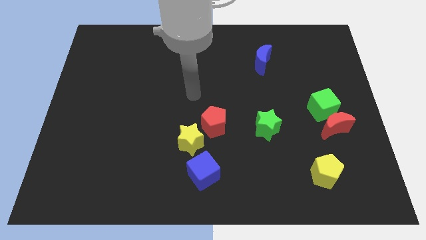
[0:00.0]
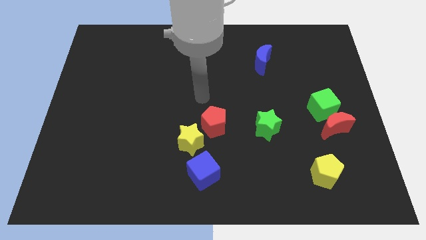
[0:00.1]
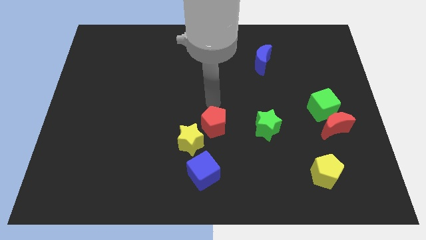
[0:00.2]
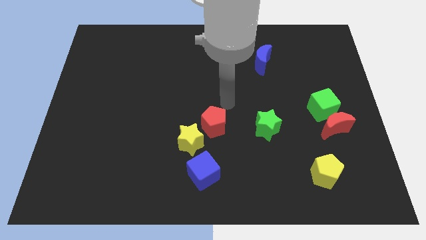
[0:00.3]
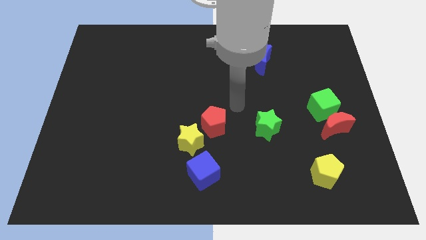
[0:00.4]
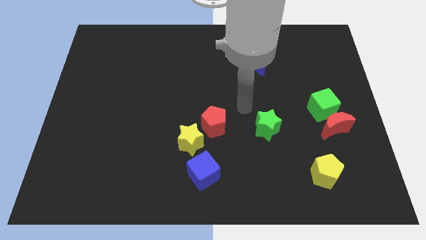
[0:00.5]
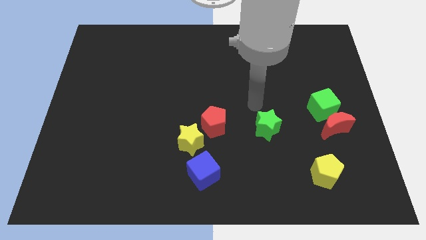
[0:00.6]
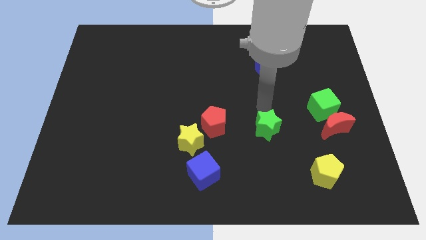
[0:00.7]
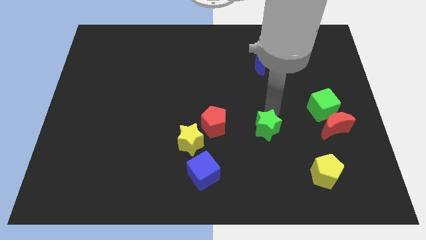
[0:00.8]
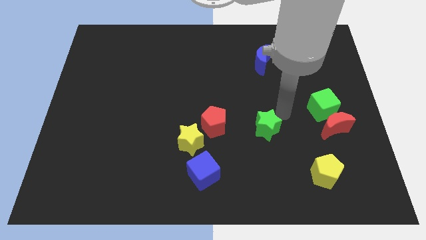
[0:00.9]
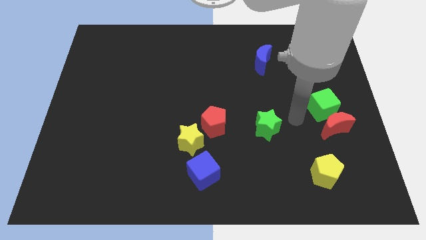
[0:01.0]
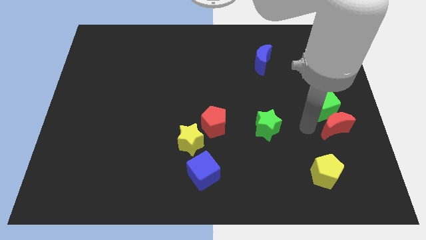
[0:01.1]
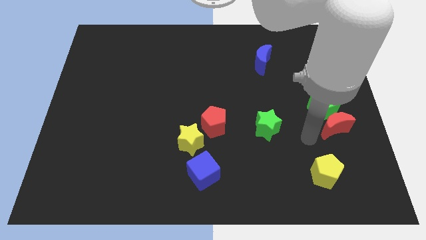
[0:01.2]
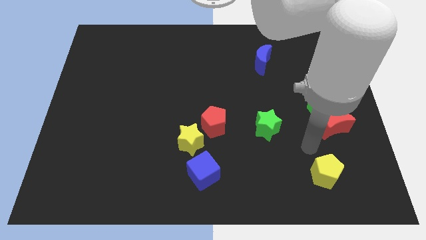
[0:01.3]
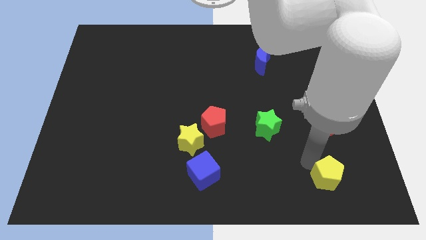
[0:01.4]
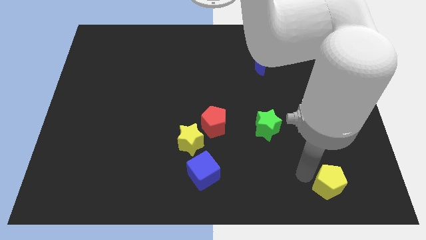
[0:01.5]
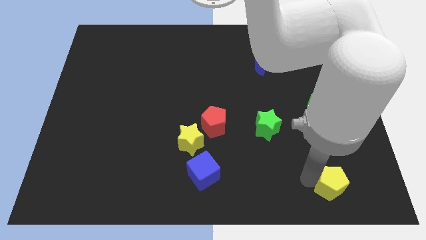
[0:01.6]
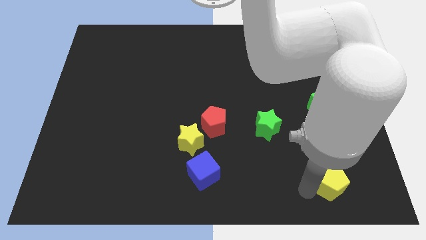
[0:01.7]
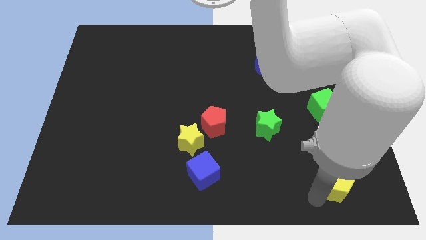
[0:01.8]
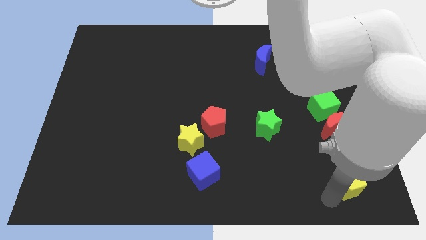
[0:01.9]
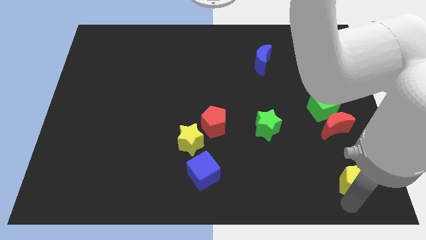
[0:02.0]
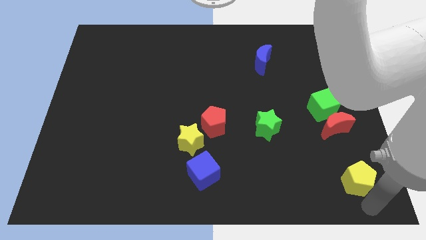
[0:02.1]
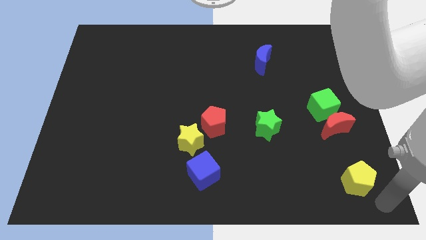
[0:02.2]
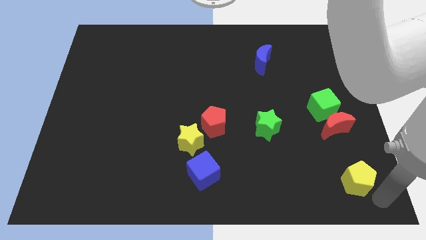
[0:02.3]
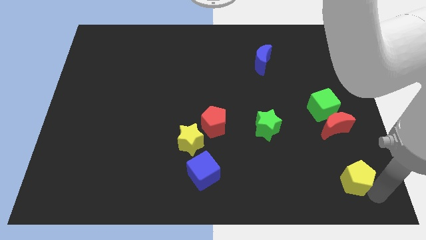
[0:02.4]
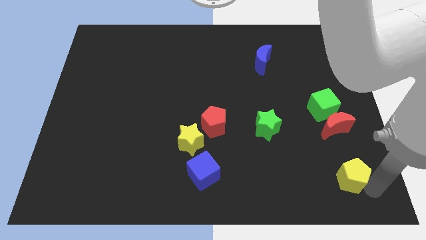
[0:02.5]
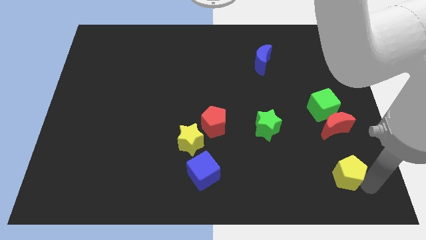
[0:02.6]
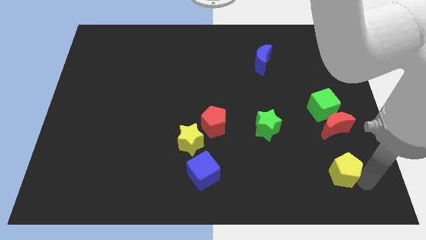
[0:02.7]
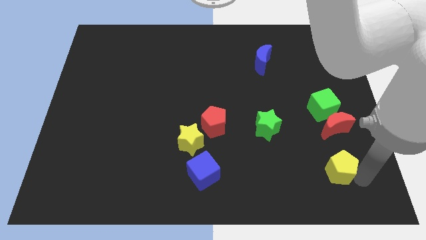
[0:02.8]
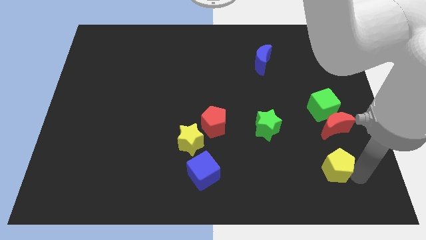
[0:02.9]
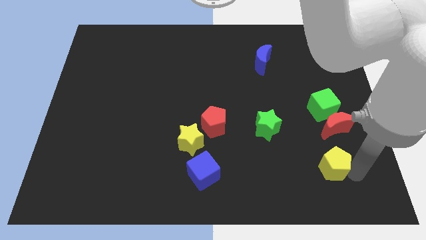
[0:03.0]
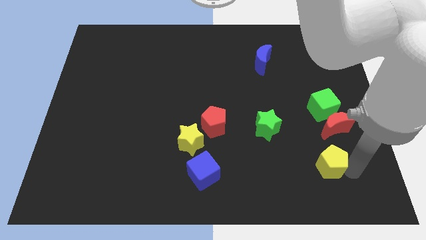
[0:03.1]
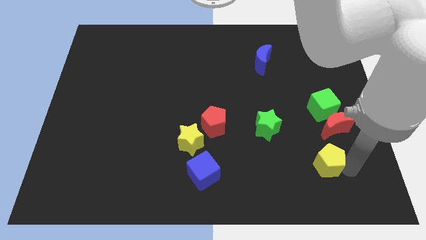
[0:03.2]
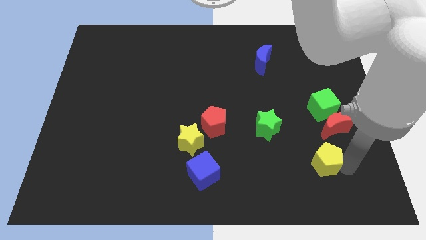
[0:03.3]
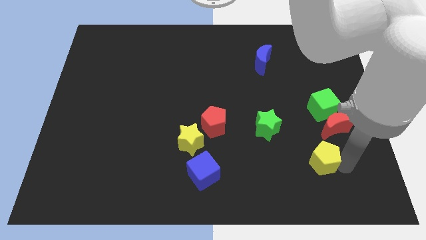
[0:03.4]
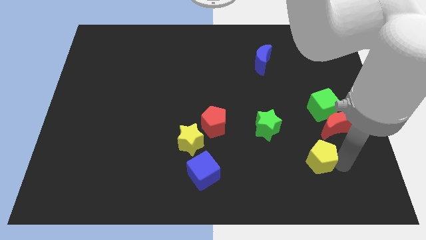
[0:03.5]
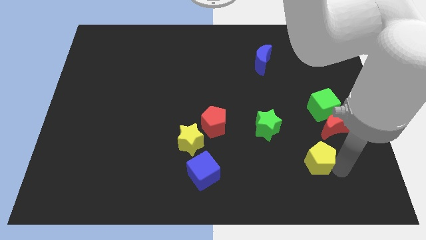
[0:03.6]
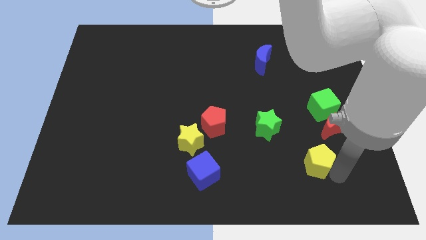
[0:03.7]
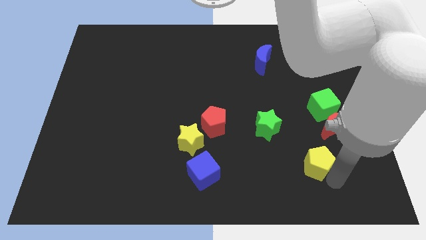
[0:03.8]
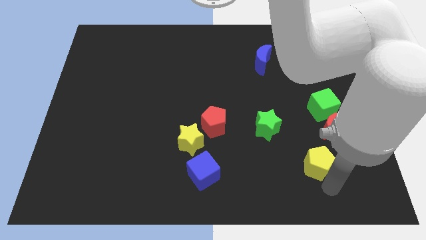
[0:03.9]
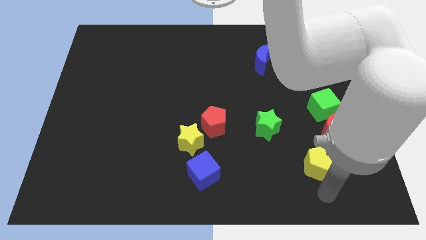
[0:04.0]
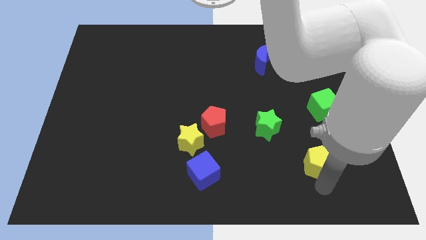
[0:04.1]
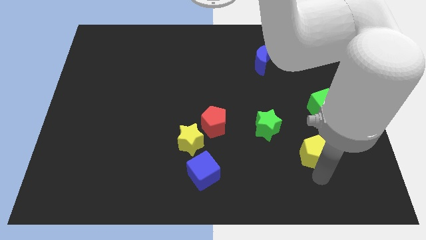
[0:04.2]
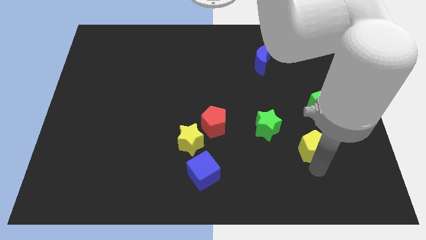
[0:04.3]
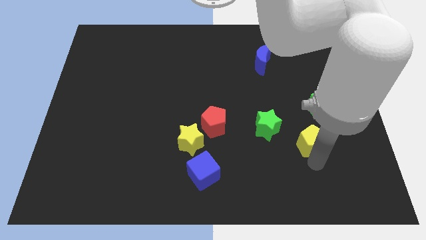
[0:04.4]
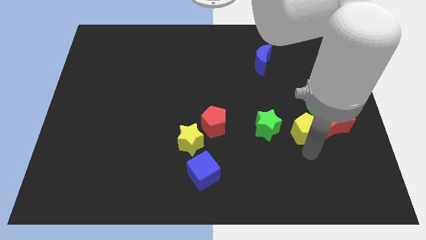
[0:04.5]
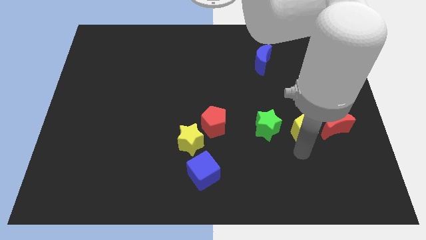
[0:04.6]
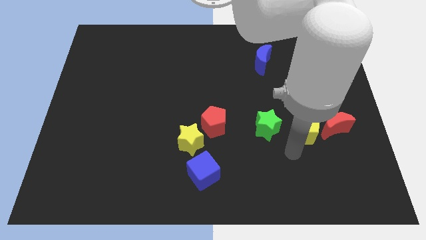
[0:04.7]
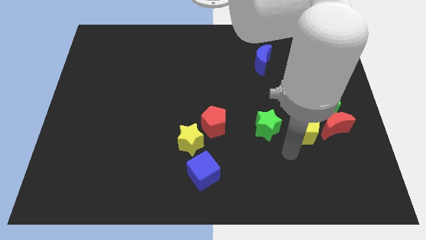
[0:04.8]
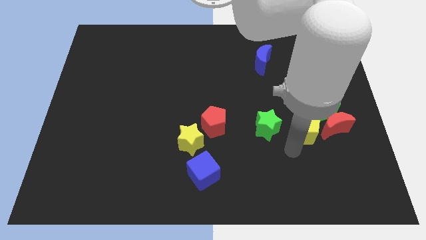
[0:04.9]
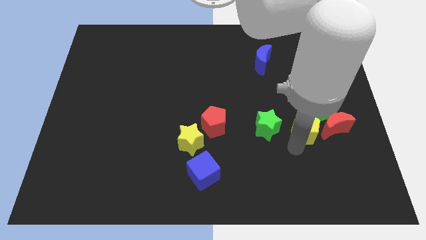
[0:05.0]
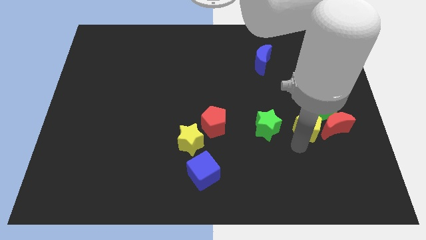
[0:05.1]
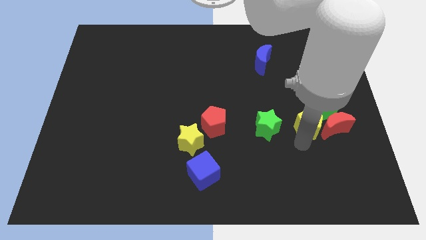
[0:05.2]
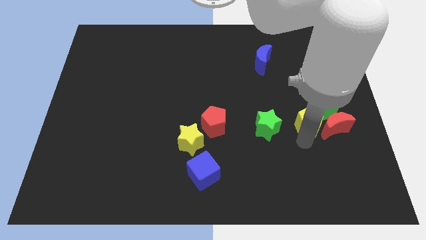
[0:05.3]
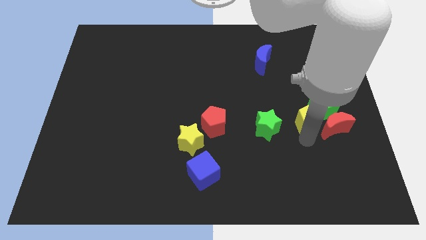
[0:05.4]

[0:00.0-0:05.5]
put the yellow pentagon towards the green cube

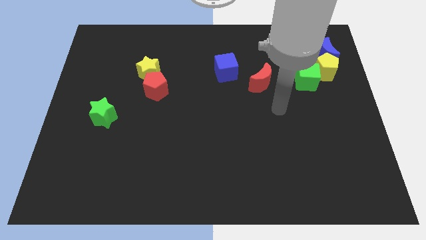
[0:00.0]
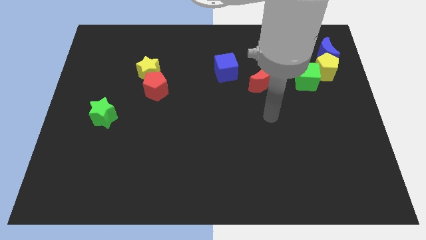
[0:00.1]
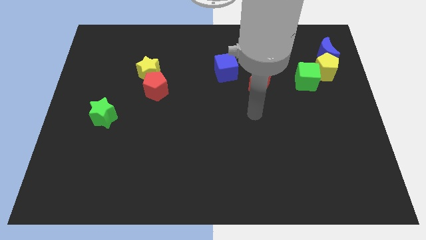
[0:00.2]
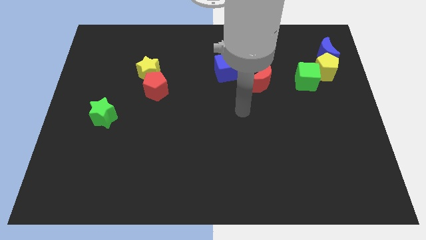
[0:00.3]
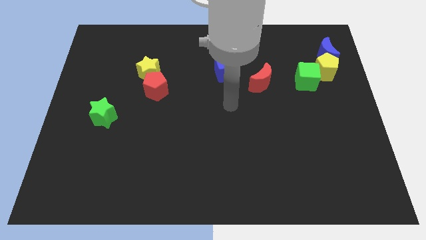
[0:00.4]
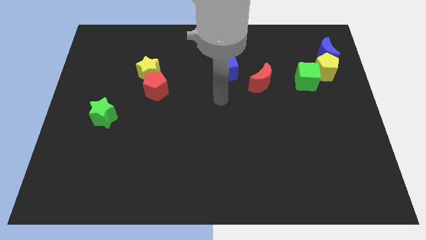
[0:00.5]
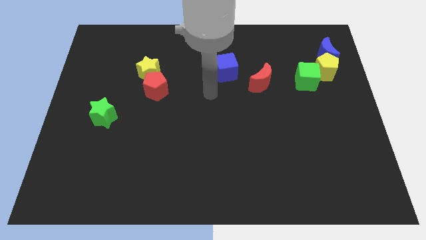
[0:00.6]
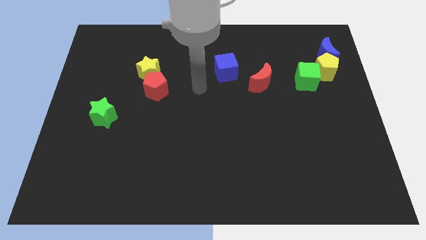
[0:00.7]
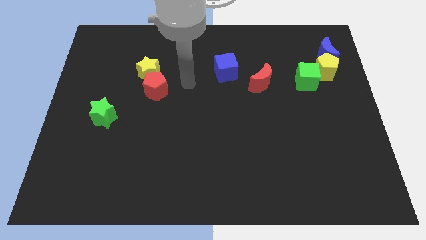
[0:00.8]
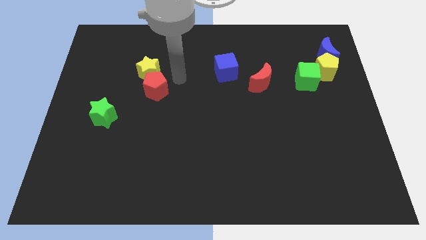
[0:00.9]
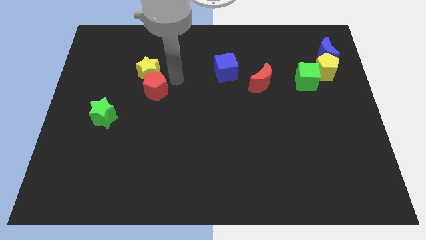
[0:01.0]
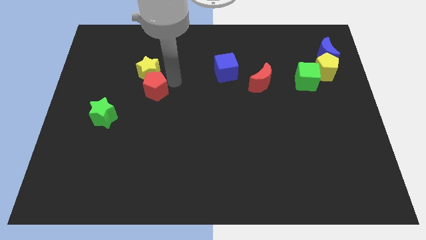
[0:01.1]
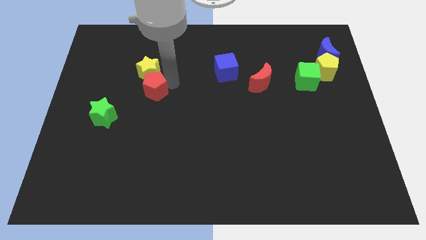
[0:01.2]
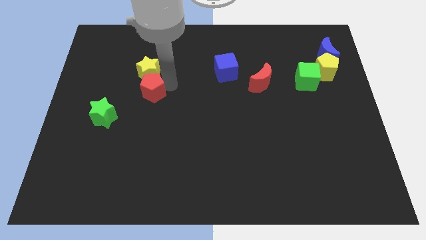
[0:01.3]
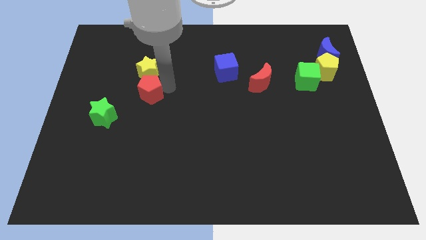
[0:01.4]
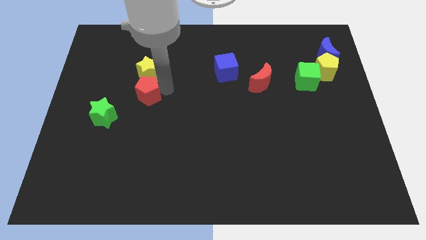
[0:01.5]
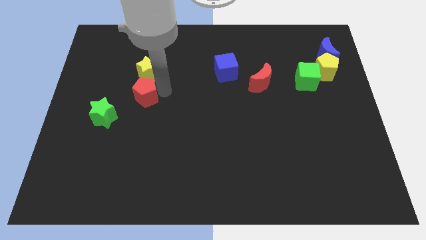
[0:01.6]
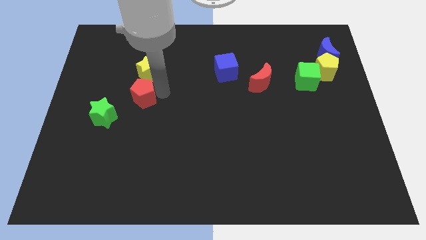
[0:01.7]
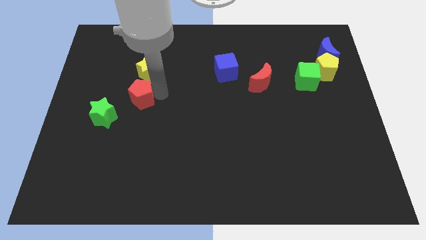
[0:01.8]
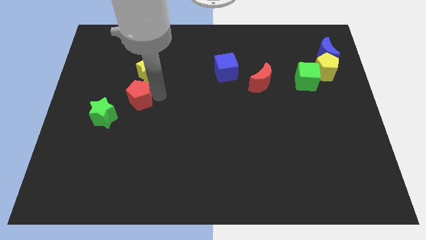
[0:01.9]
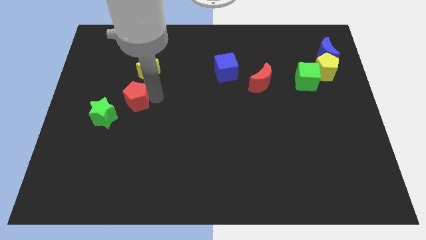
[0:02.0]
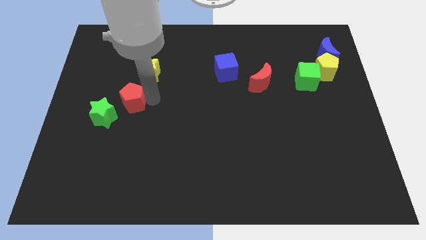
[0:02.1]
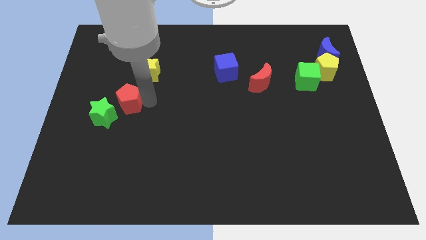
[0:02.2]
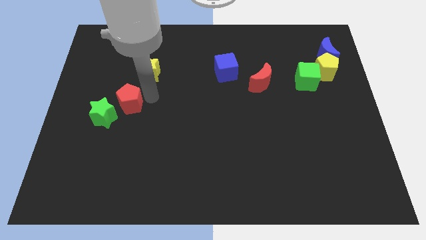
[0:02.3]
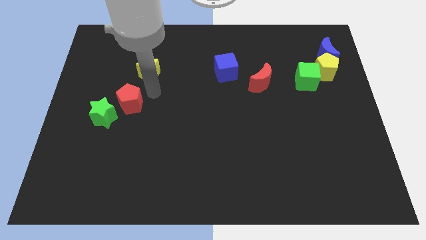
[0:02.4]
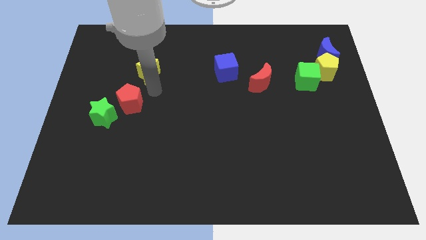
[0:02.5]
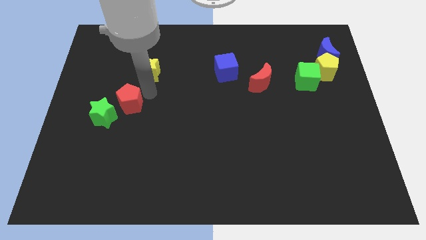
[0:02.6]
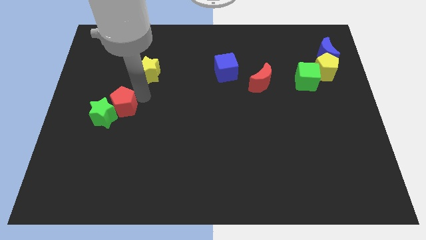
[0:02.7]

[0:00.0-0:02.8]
move the red pentagon close to the green star
